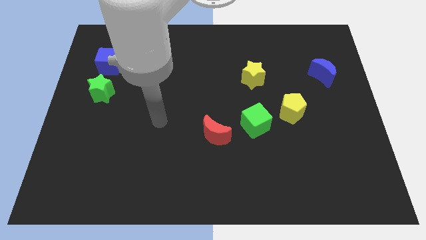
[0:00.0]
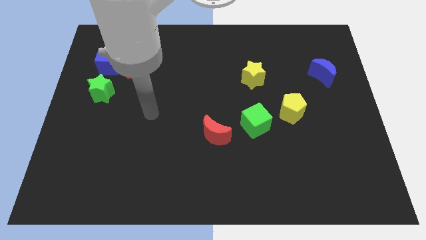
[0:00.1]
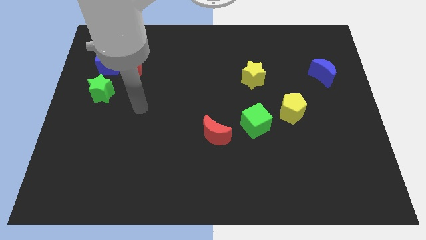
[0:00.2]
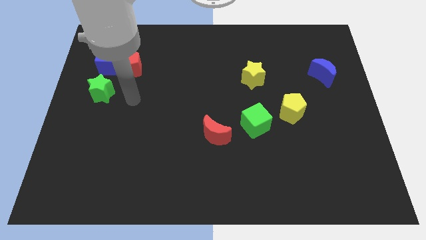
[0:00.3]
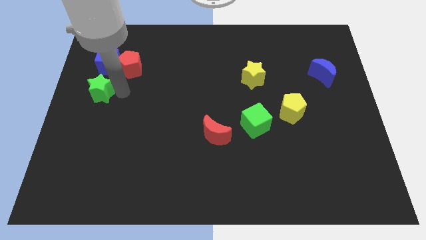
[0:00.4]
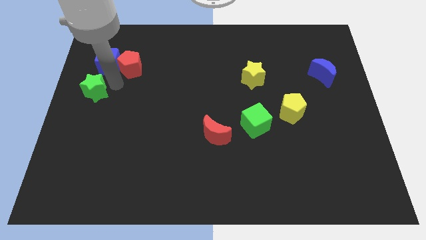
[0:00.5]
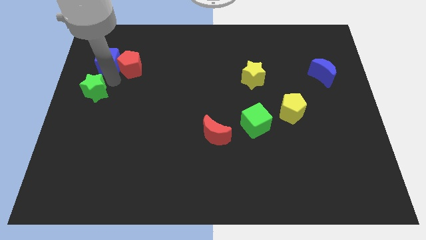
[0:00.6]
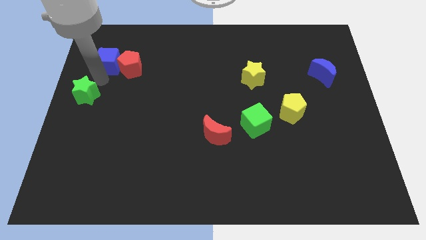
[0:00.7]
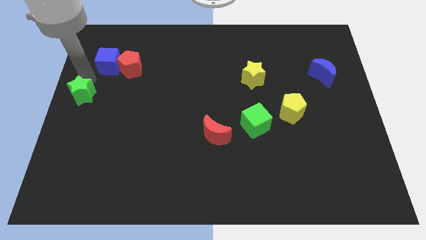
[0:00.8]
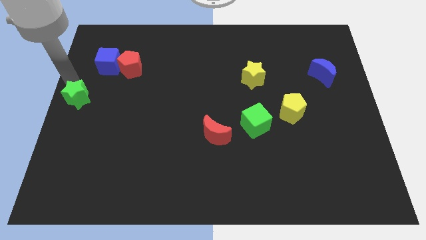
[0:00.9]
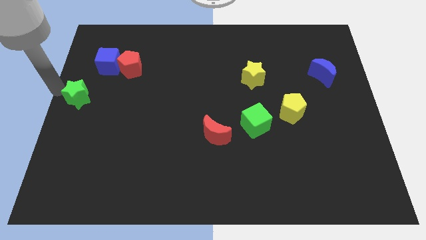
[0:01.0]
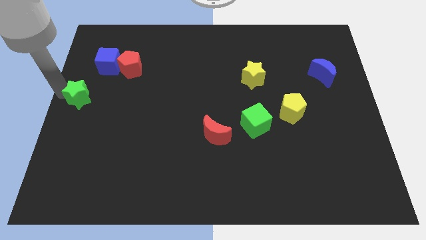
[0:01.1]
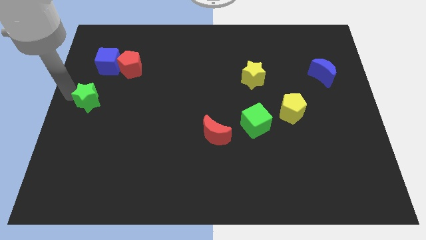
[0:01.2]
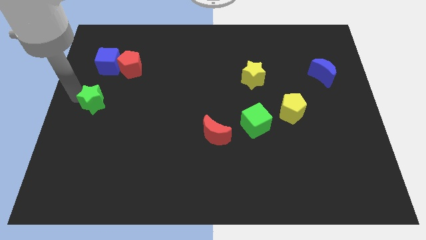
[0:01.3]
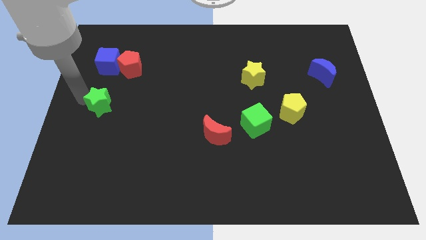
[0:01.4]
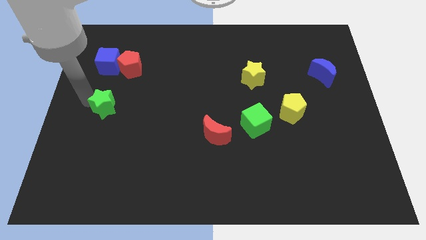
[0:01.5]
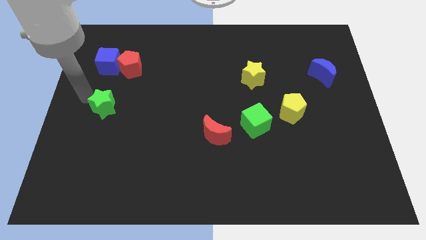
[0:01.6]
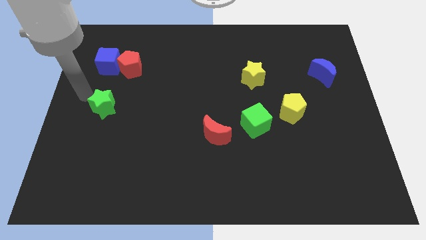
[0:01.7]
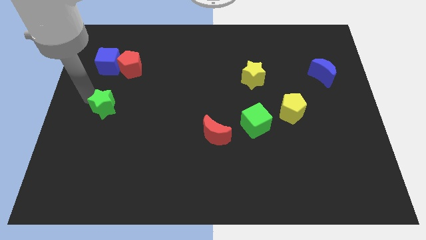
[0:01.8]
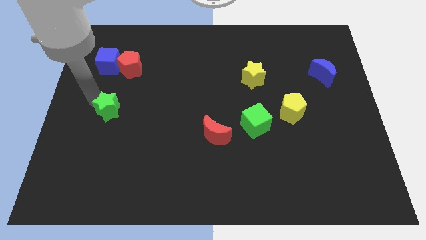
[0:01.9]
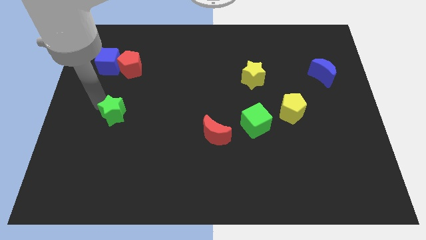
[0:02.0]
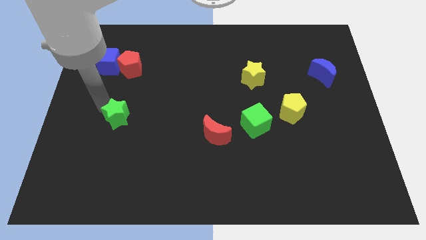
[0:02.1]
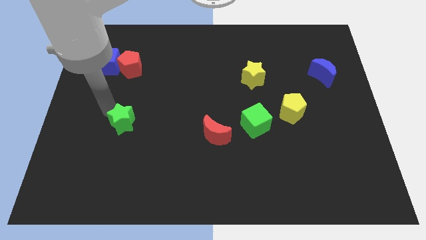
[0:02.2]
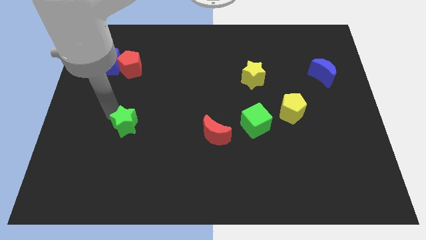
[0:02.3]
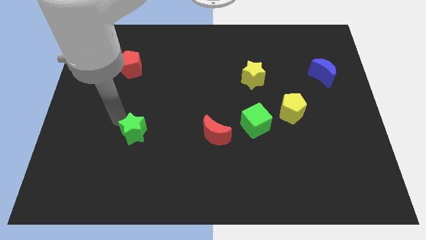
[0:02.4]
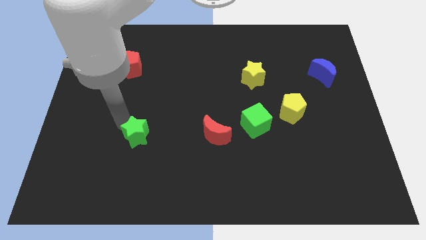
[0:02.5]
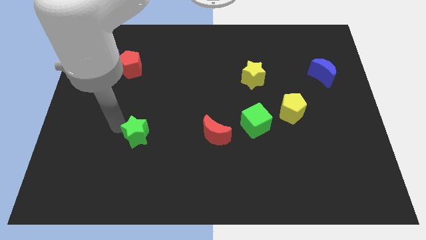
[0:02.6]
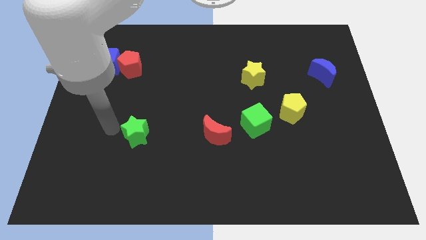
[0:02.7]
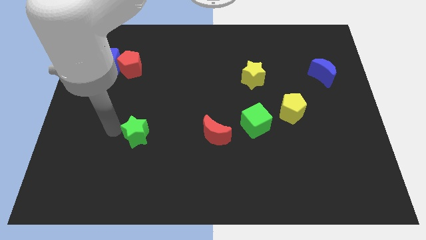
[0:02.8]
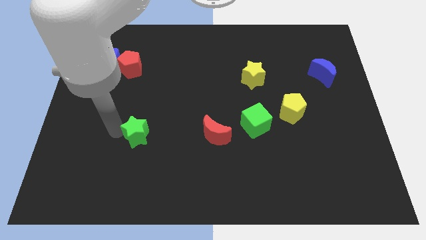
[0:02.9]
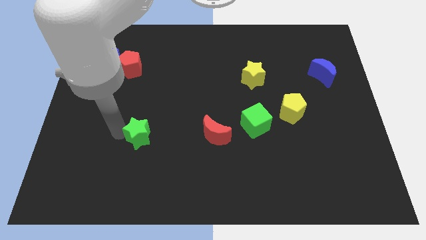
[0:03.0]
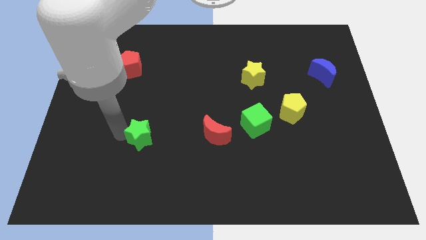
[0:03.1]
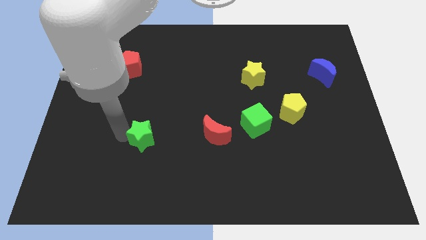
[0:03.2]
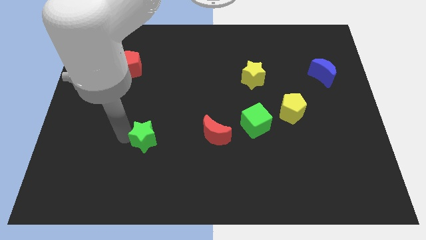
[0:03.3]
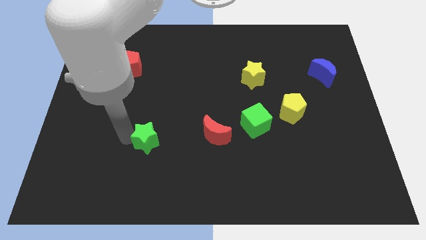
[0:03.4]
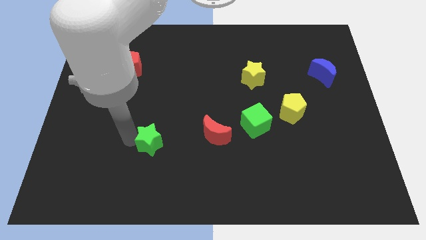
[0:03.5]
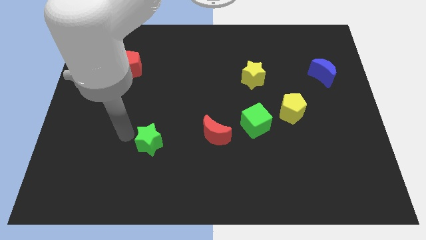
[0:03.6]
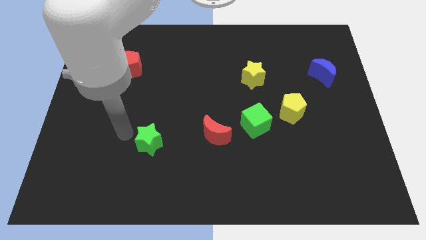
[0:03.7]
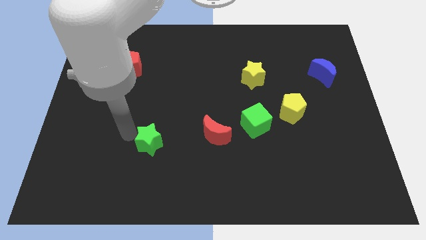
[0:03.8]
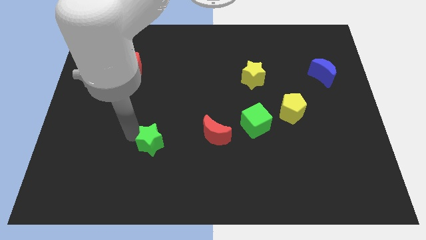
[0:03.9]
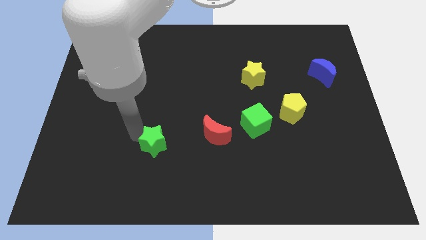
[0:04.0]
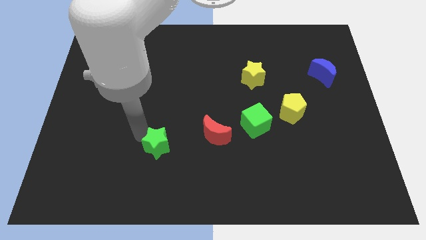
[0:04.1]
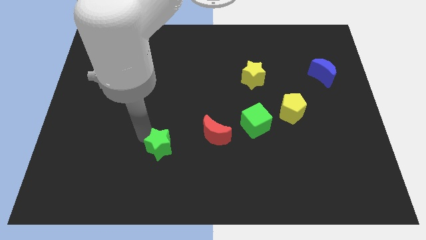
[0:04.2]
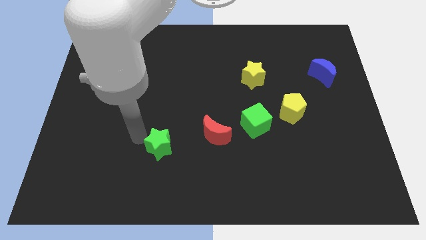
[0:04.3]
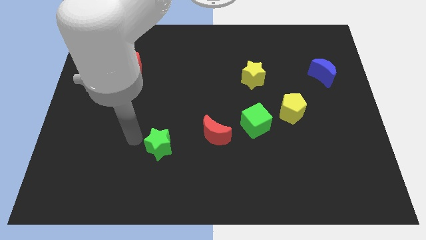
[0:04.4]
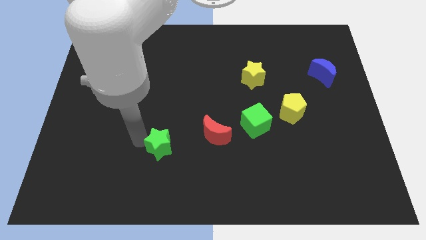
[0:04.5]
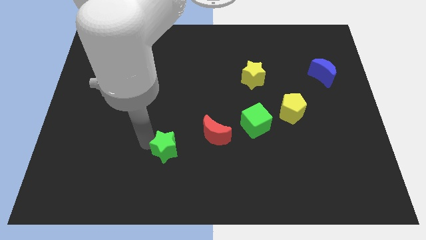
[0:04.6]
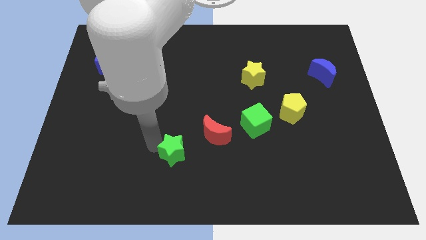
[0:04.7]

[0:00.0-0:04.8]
slide the green star diagonally down and to the left of the red moon

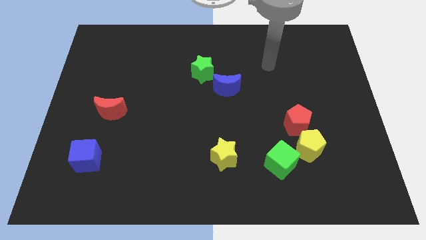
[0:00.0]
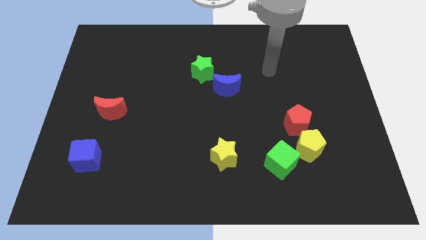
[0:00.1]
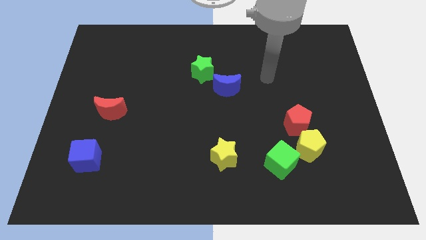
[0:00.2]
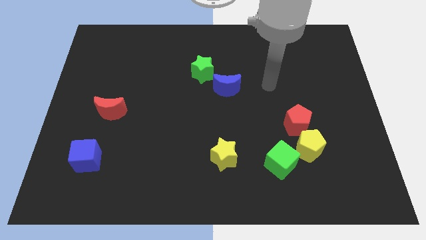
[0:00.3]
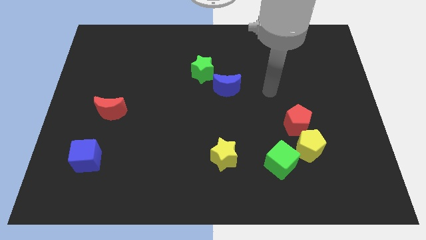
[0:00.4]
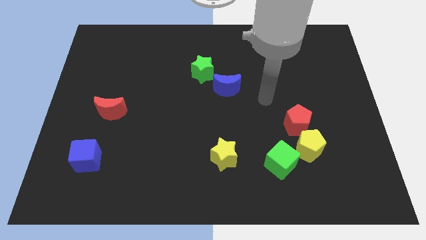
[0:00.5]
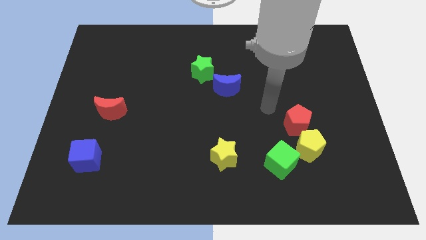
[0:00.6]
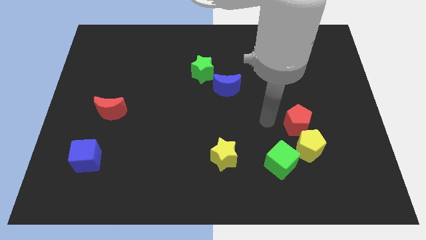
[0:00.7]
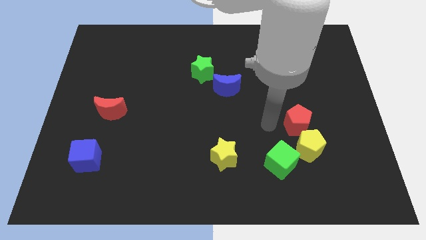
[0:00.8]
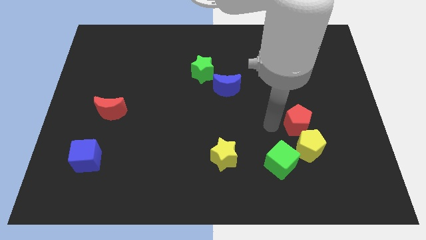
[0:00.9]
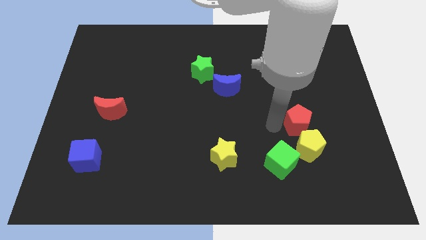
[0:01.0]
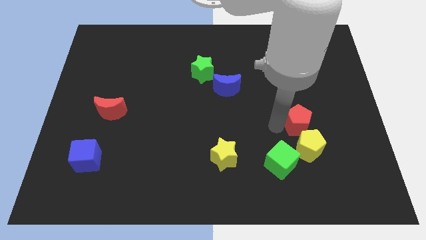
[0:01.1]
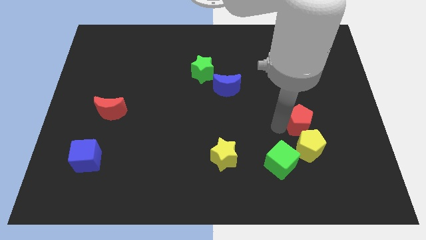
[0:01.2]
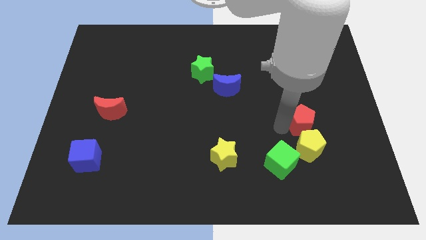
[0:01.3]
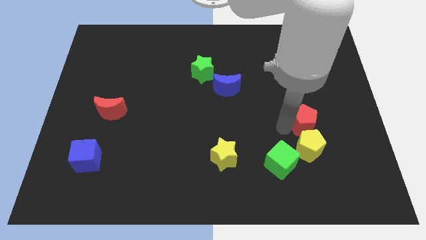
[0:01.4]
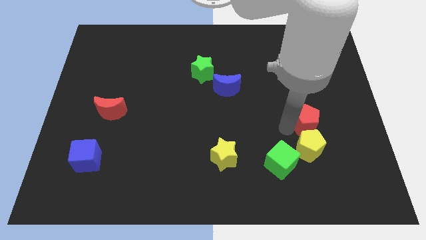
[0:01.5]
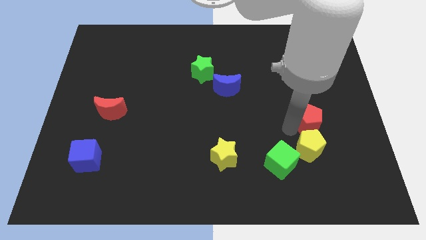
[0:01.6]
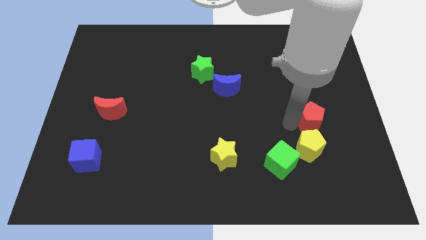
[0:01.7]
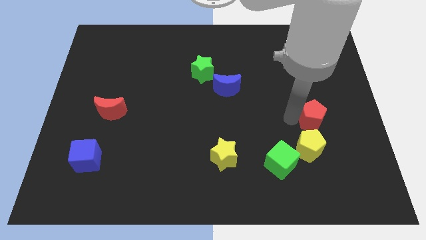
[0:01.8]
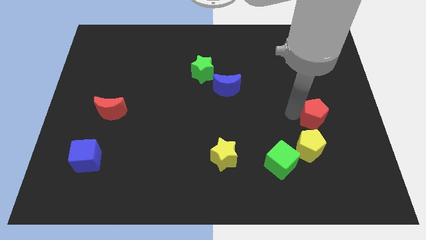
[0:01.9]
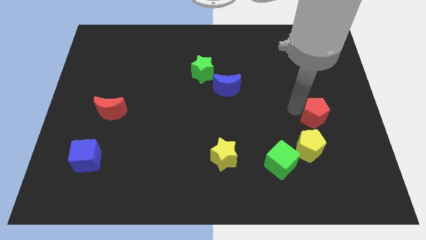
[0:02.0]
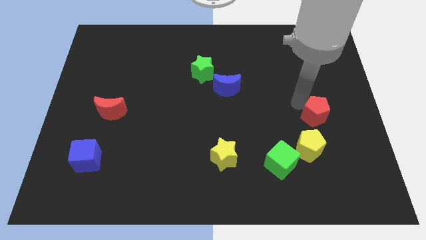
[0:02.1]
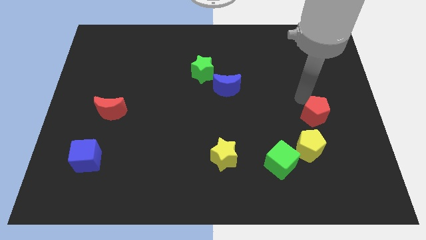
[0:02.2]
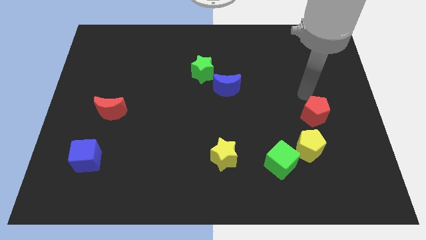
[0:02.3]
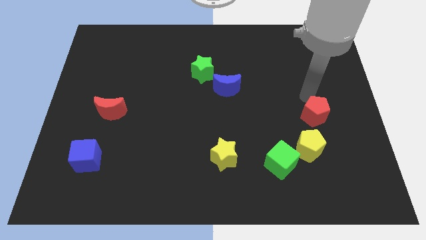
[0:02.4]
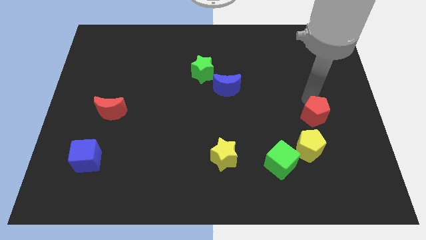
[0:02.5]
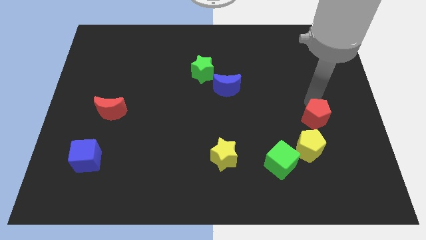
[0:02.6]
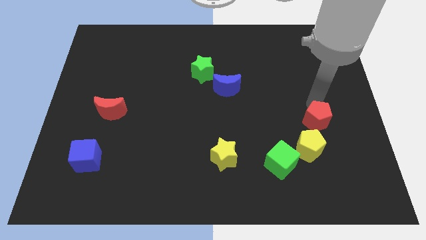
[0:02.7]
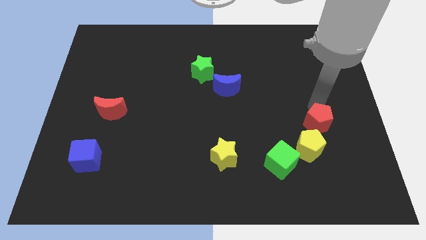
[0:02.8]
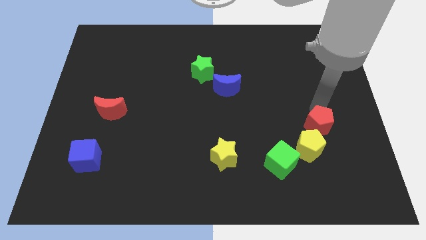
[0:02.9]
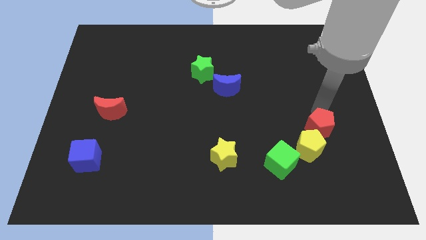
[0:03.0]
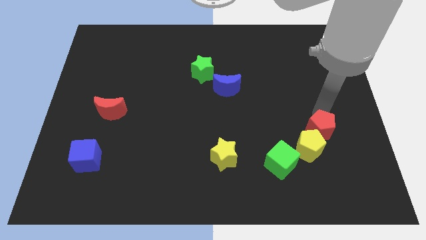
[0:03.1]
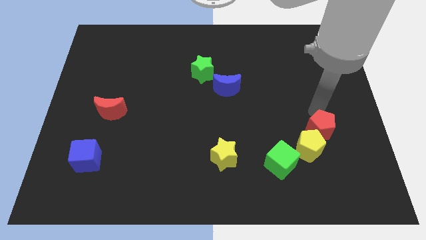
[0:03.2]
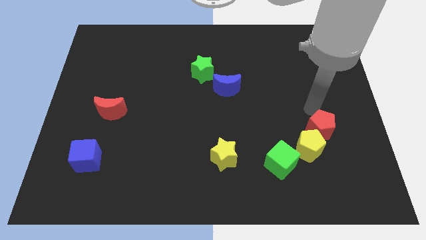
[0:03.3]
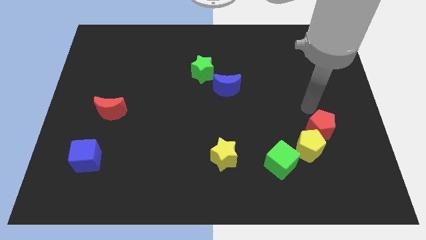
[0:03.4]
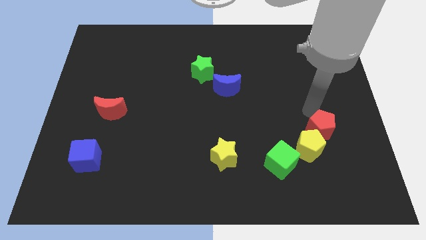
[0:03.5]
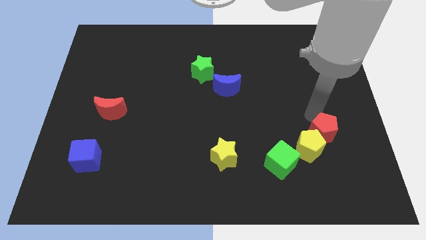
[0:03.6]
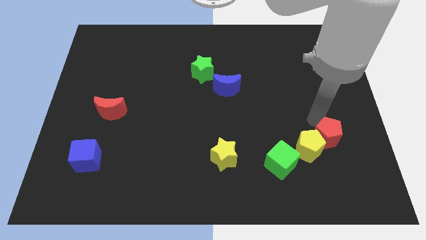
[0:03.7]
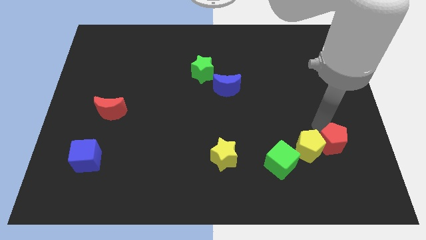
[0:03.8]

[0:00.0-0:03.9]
move the red pentagon to the right side of the green cube
